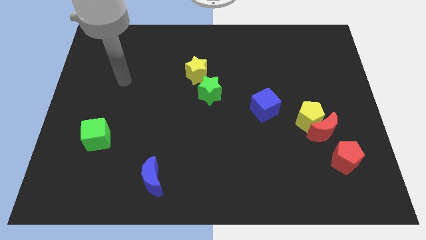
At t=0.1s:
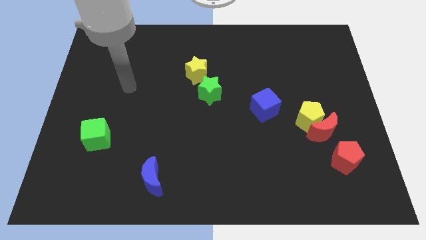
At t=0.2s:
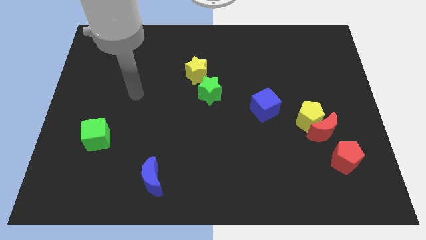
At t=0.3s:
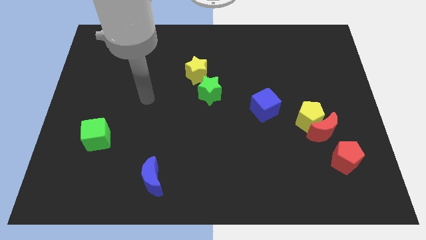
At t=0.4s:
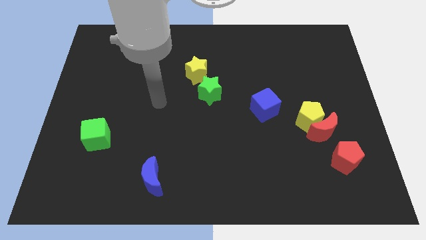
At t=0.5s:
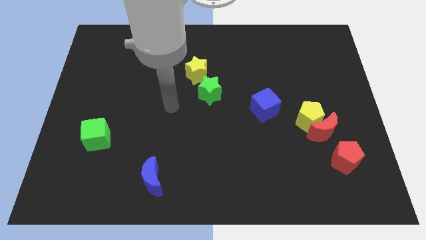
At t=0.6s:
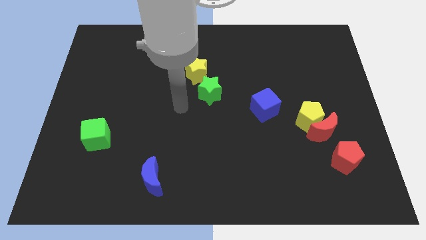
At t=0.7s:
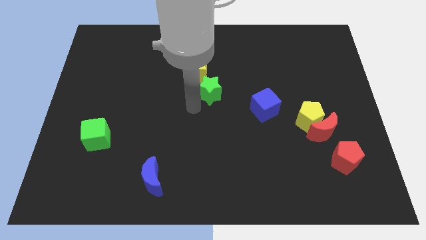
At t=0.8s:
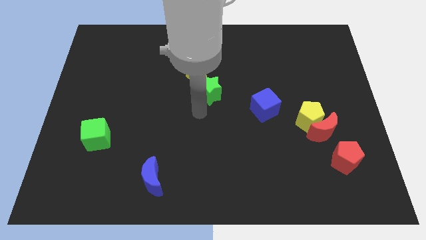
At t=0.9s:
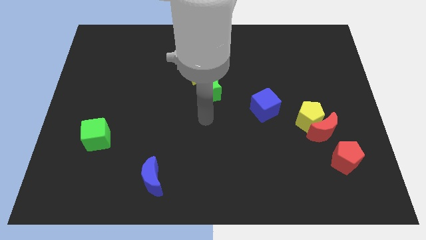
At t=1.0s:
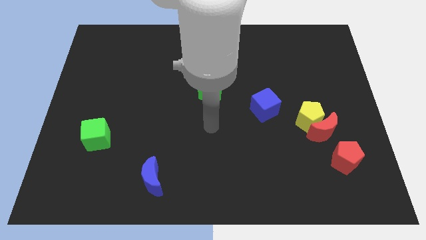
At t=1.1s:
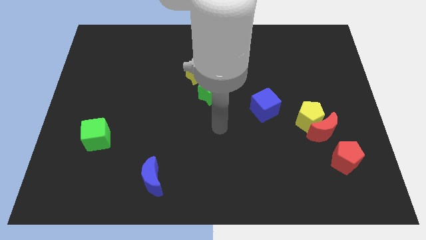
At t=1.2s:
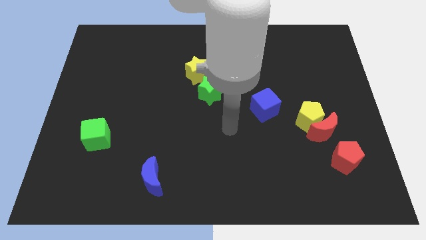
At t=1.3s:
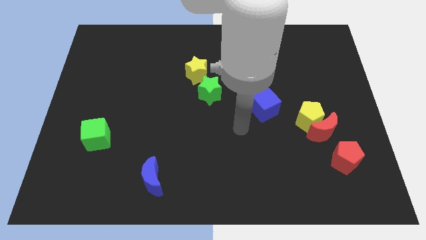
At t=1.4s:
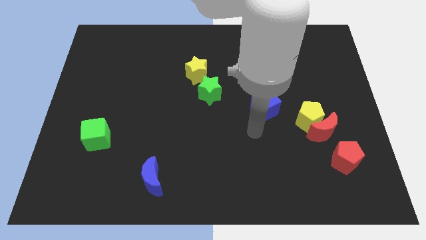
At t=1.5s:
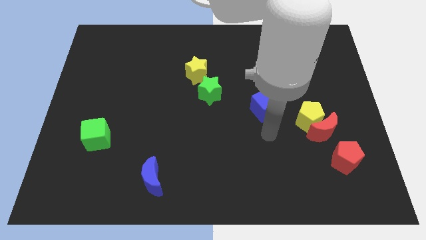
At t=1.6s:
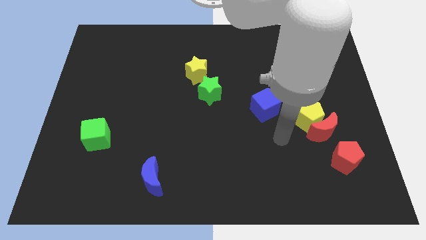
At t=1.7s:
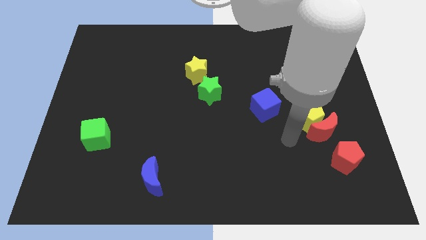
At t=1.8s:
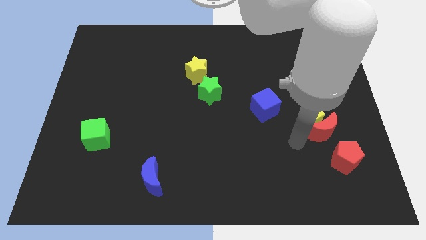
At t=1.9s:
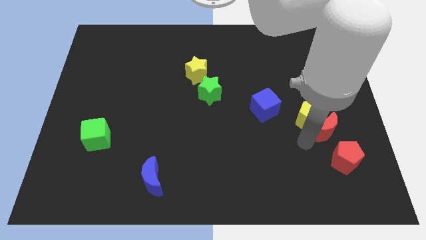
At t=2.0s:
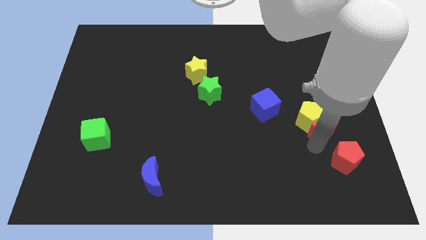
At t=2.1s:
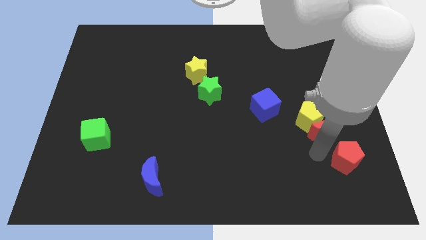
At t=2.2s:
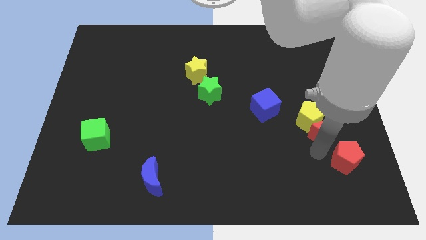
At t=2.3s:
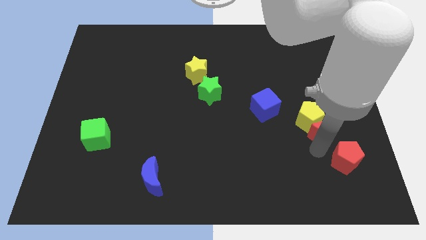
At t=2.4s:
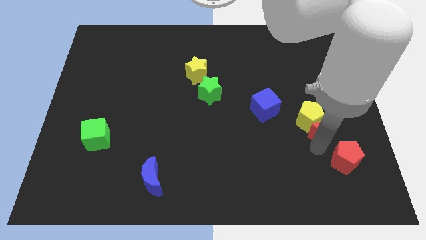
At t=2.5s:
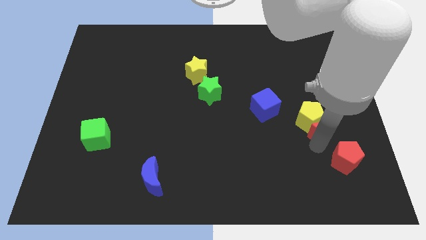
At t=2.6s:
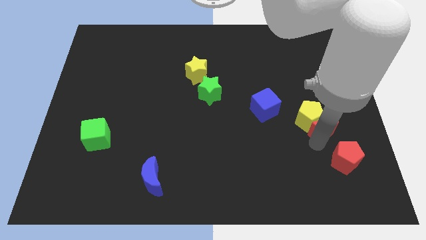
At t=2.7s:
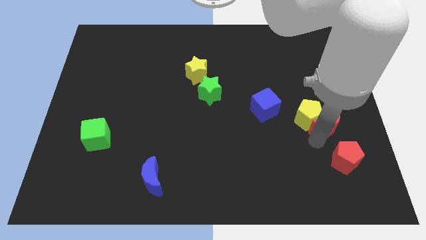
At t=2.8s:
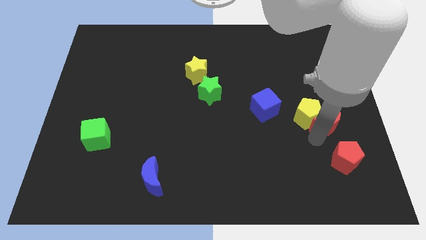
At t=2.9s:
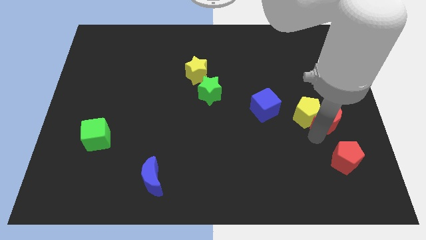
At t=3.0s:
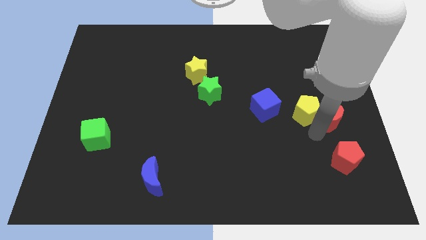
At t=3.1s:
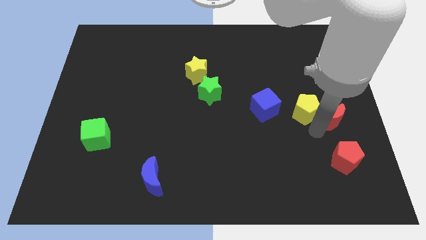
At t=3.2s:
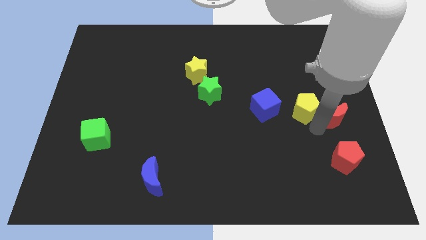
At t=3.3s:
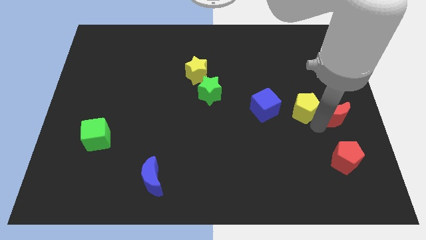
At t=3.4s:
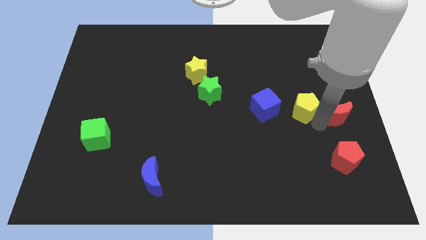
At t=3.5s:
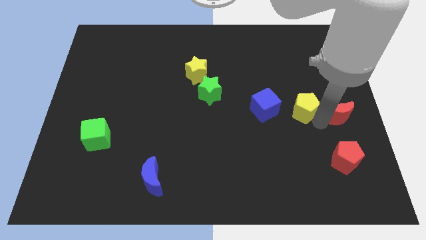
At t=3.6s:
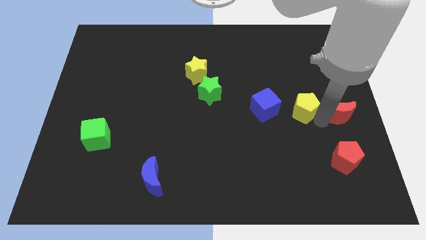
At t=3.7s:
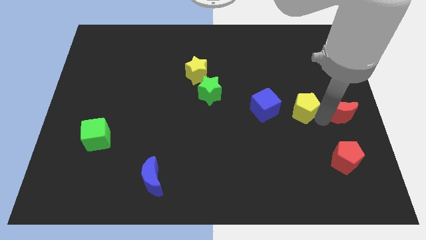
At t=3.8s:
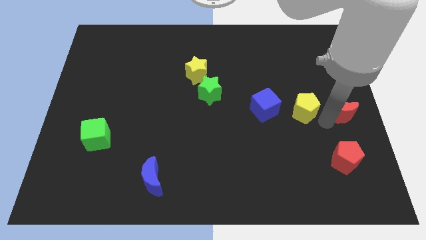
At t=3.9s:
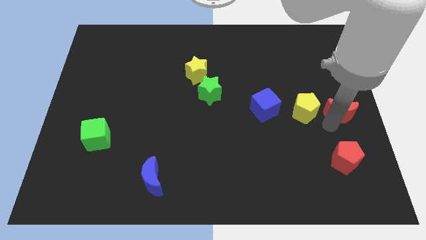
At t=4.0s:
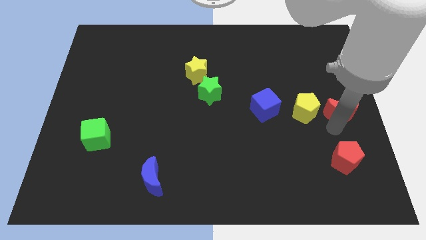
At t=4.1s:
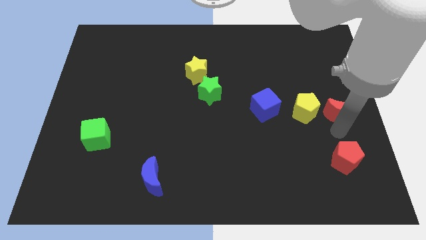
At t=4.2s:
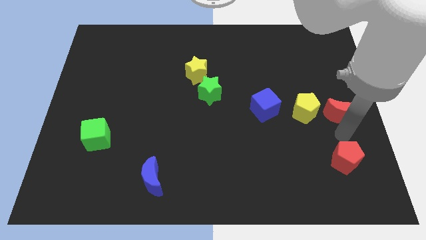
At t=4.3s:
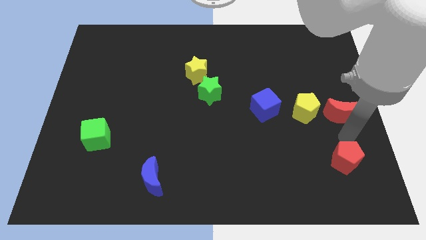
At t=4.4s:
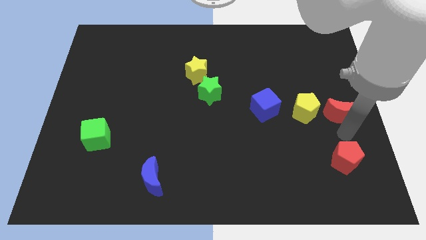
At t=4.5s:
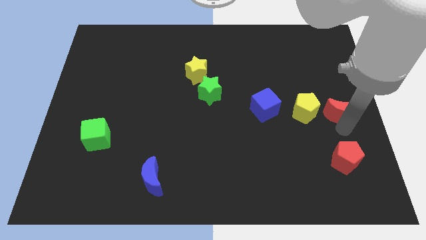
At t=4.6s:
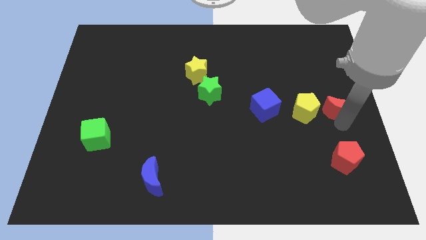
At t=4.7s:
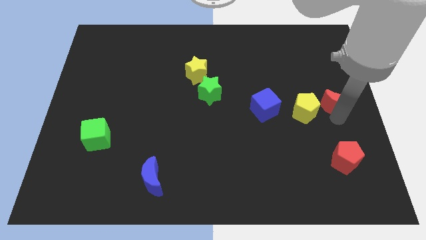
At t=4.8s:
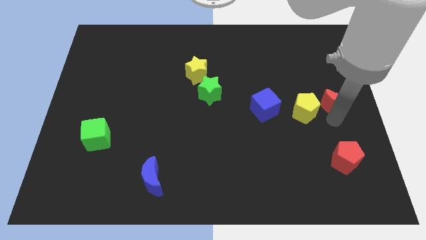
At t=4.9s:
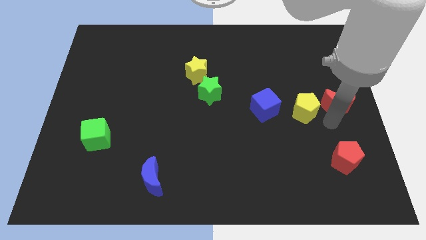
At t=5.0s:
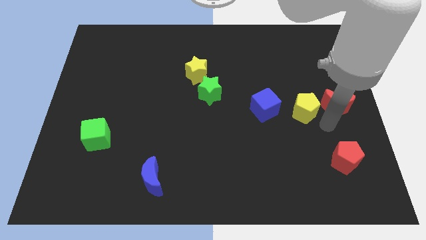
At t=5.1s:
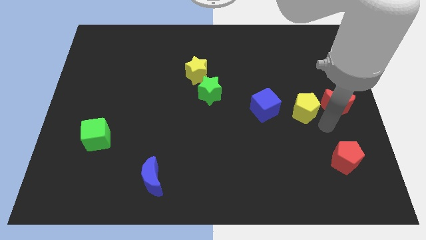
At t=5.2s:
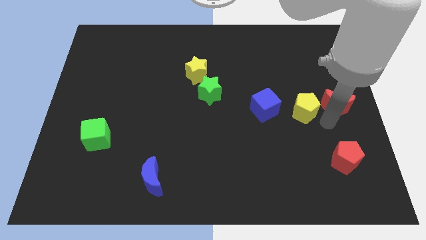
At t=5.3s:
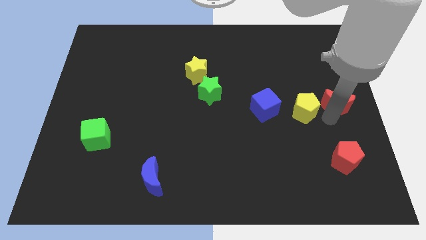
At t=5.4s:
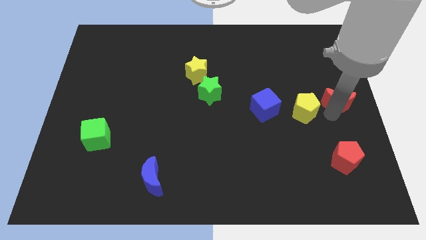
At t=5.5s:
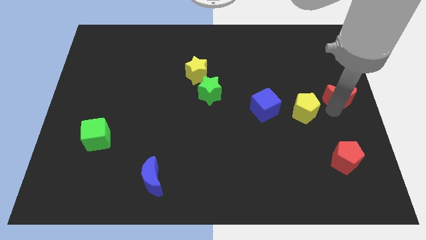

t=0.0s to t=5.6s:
pull the red moon apart from the yellow pentagon and red pentagon

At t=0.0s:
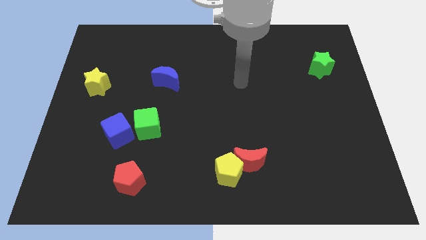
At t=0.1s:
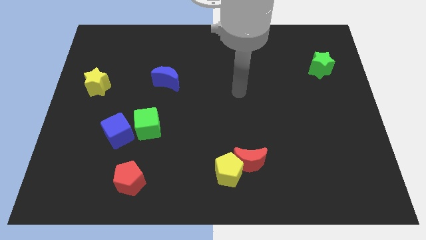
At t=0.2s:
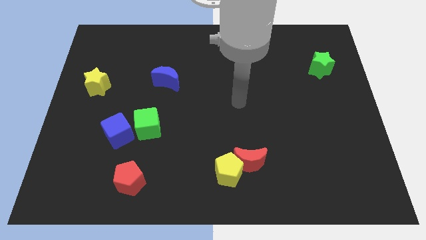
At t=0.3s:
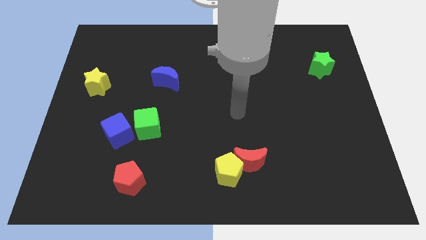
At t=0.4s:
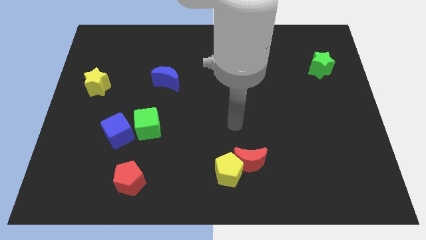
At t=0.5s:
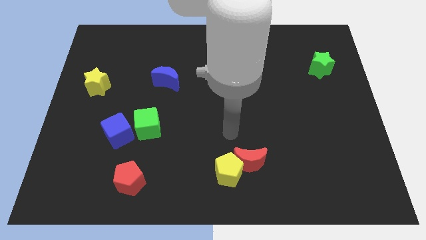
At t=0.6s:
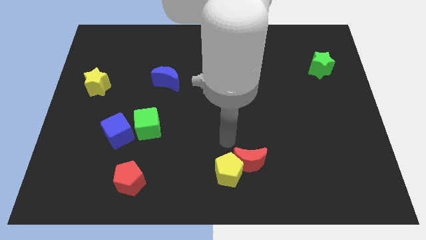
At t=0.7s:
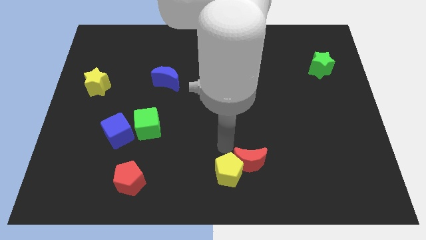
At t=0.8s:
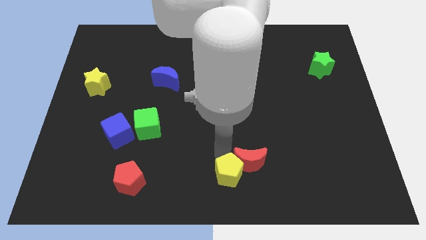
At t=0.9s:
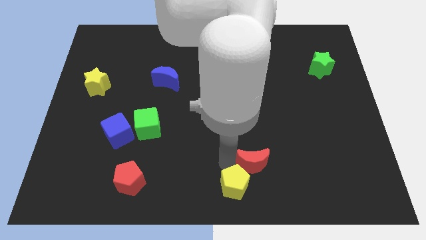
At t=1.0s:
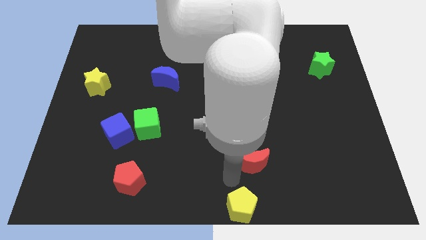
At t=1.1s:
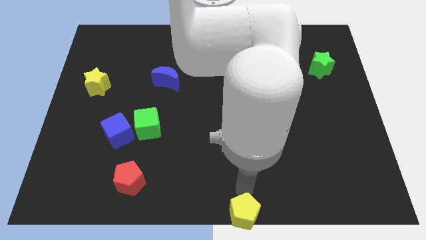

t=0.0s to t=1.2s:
move the red moon away from the yellow pentagon

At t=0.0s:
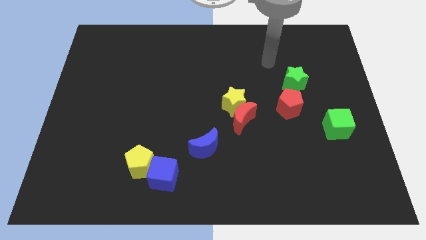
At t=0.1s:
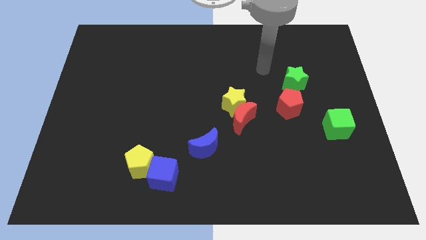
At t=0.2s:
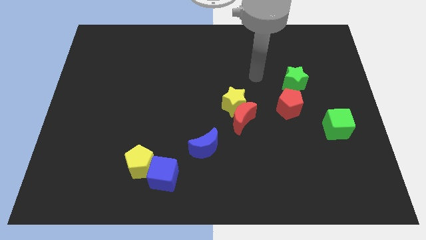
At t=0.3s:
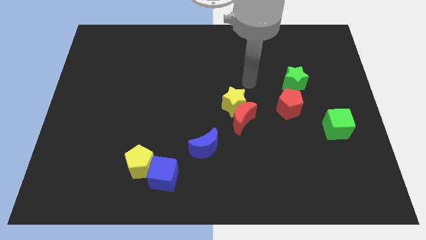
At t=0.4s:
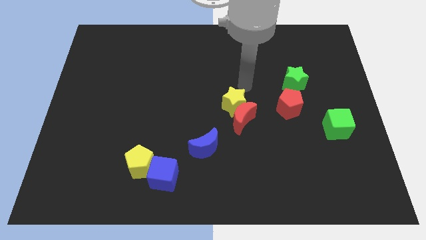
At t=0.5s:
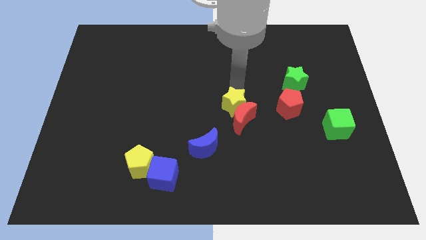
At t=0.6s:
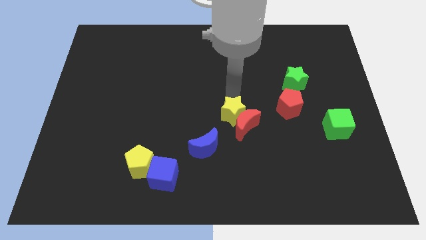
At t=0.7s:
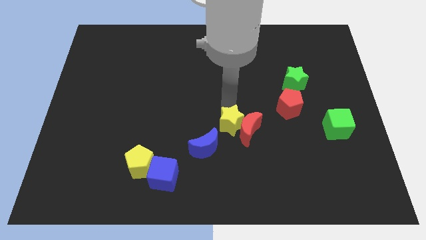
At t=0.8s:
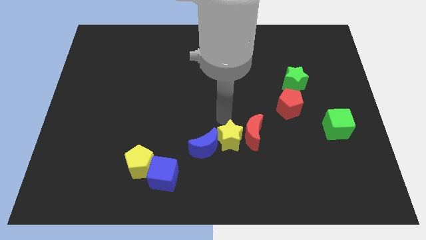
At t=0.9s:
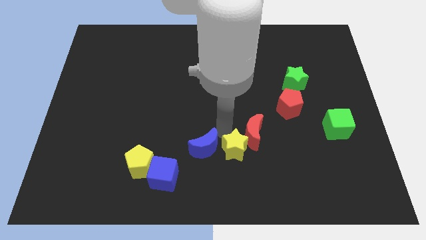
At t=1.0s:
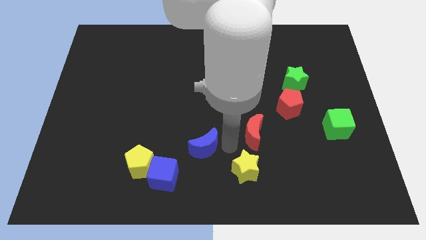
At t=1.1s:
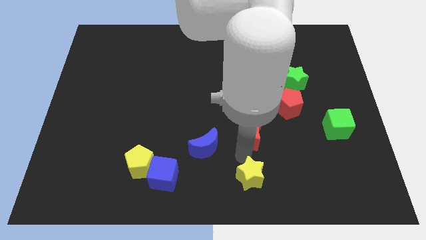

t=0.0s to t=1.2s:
pull the red moon apart from the yellow star

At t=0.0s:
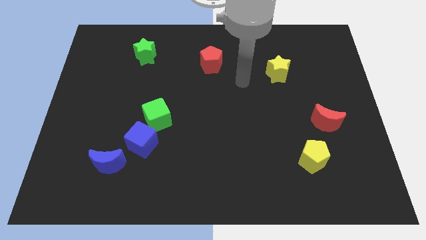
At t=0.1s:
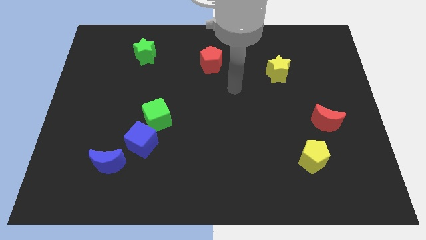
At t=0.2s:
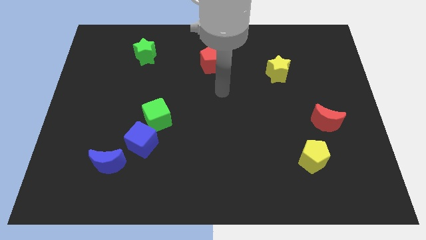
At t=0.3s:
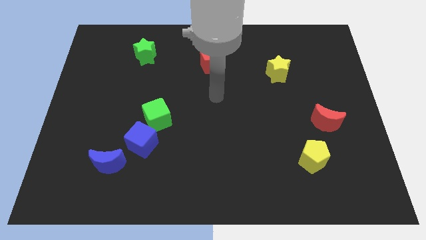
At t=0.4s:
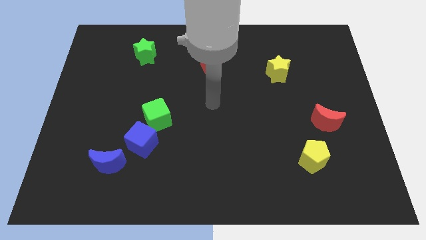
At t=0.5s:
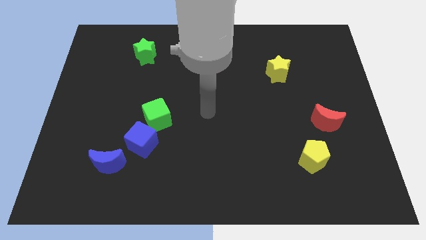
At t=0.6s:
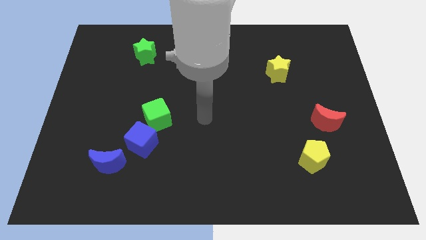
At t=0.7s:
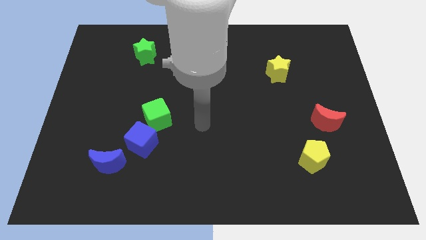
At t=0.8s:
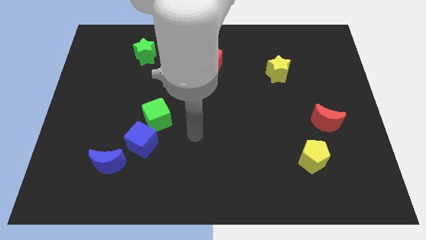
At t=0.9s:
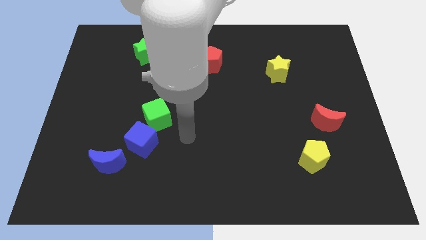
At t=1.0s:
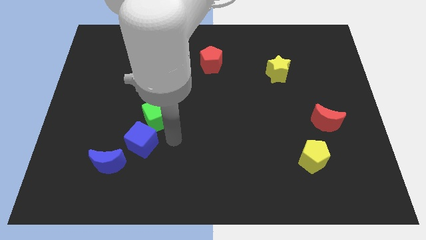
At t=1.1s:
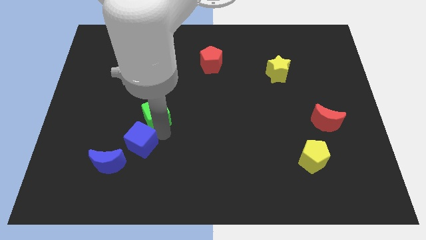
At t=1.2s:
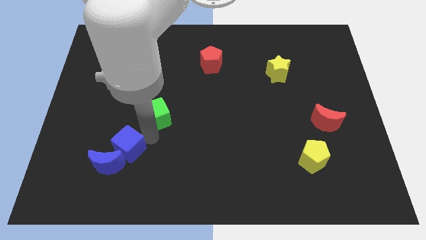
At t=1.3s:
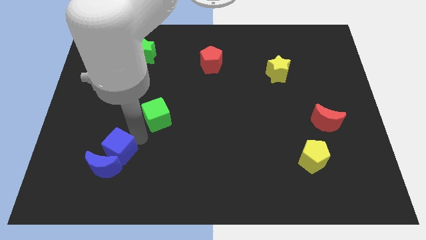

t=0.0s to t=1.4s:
move the green cube away from the blue cube
